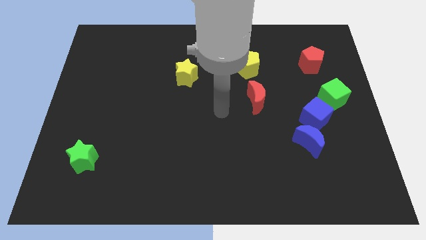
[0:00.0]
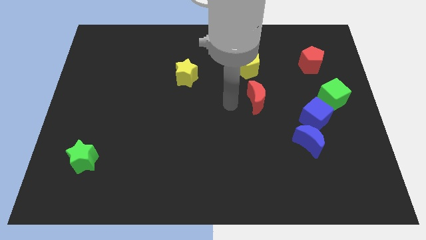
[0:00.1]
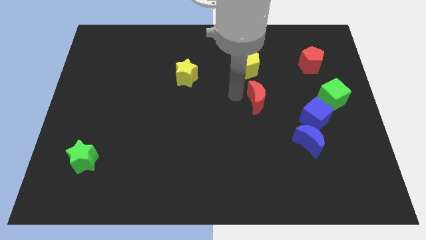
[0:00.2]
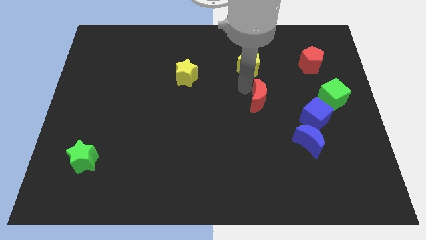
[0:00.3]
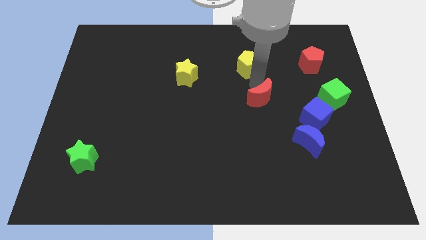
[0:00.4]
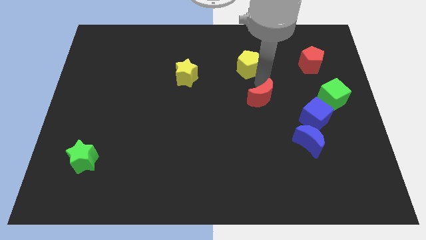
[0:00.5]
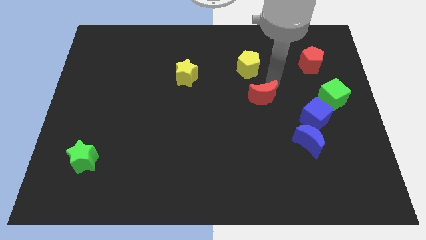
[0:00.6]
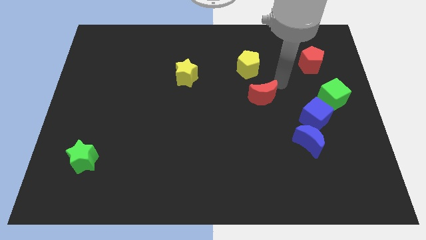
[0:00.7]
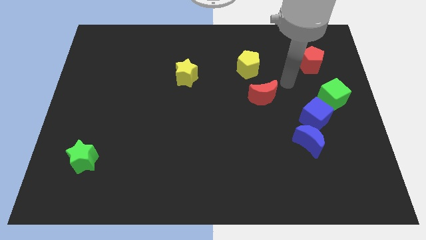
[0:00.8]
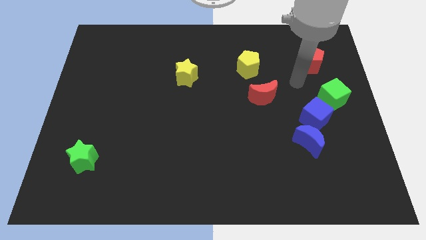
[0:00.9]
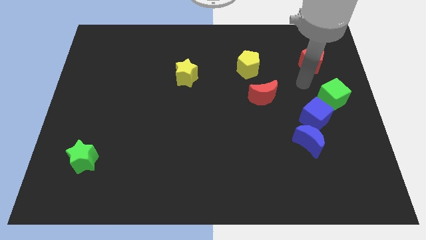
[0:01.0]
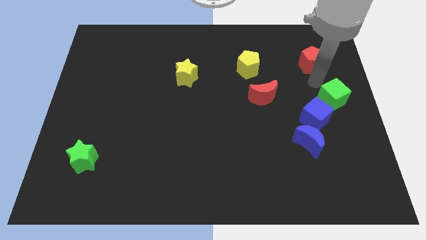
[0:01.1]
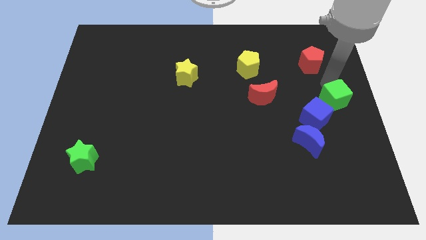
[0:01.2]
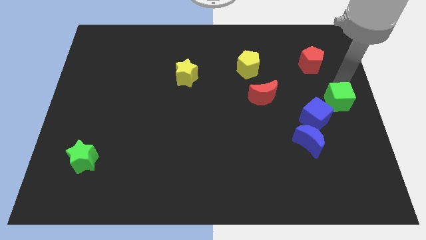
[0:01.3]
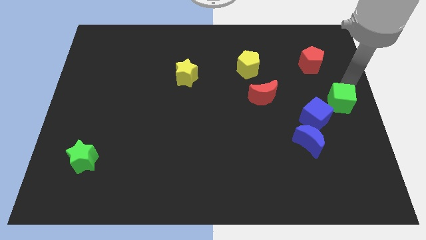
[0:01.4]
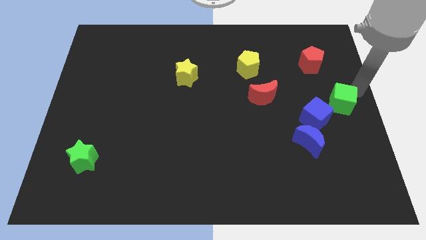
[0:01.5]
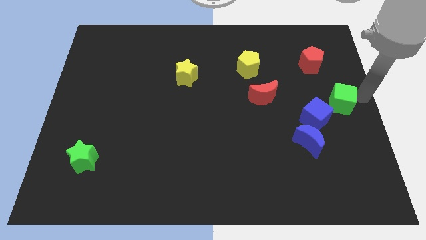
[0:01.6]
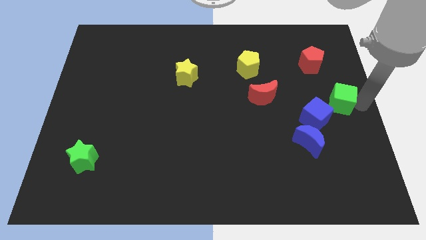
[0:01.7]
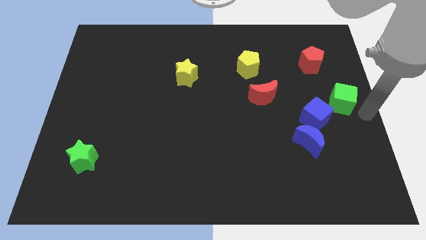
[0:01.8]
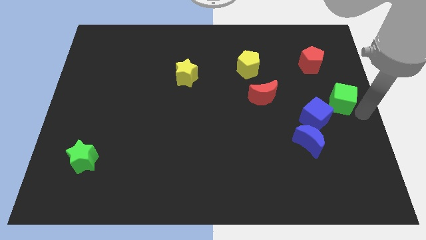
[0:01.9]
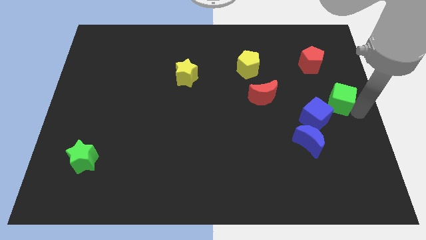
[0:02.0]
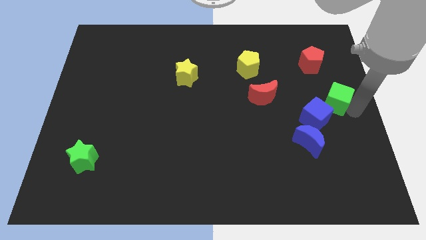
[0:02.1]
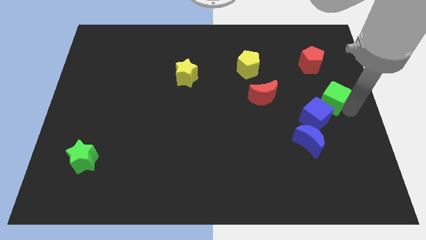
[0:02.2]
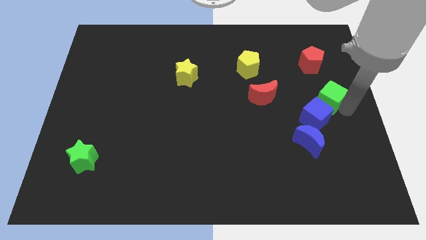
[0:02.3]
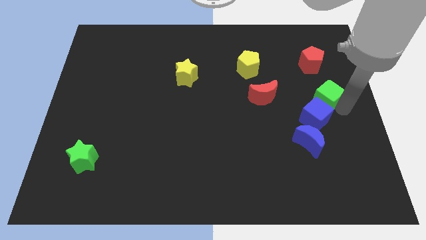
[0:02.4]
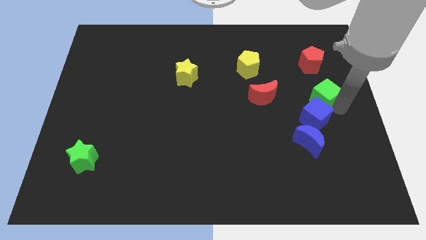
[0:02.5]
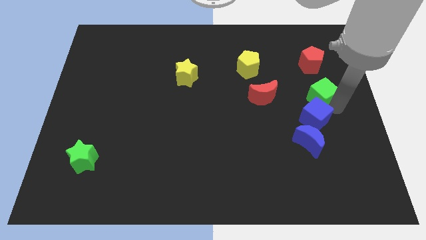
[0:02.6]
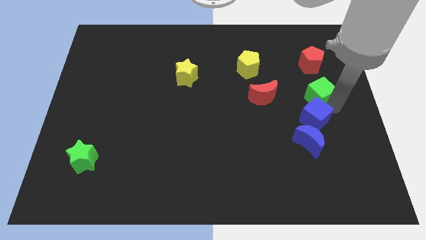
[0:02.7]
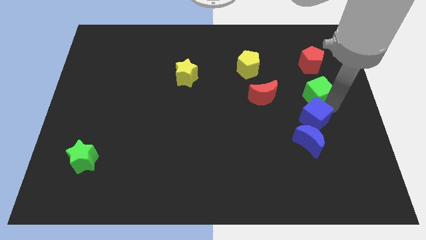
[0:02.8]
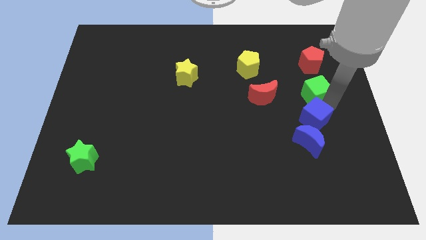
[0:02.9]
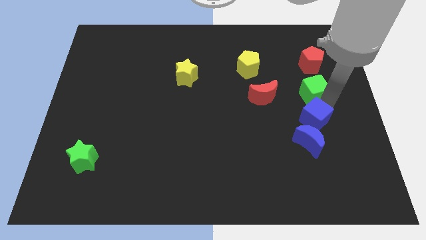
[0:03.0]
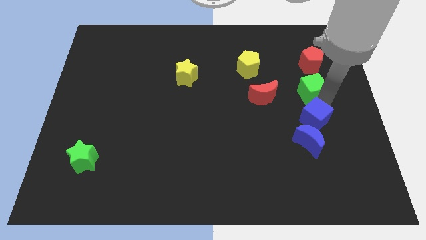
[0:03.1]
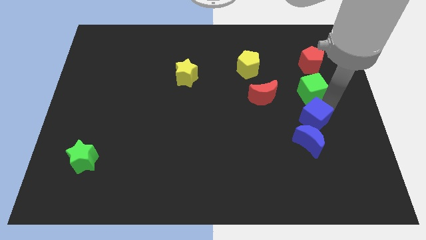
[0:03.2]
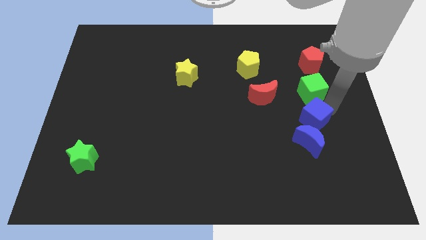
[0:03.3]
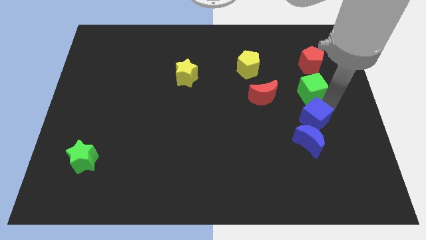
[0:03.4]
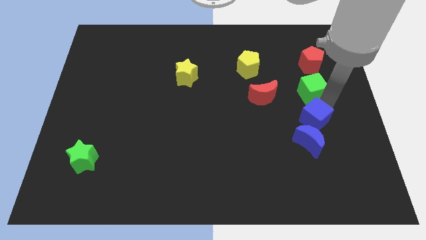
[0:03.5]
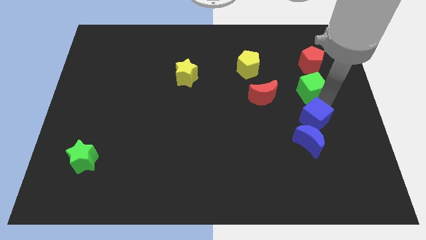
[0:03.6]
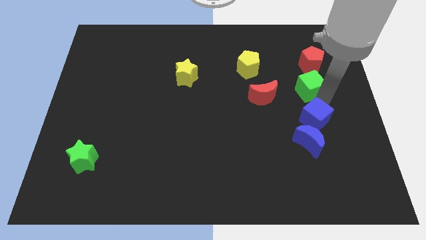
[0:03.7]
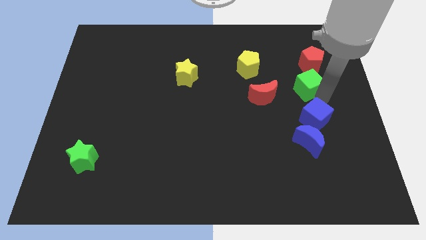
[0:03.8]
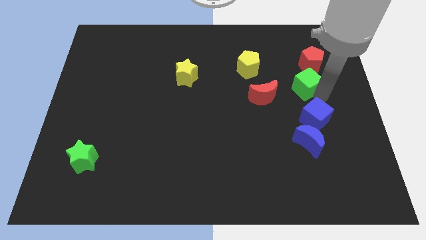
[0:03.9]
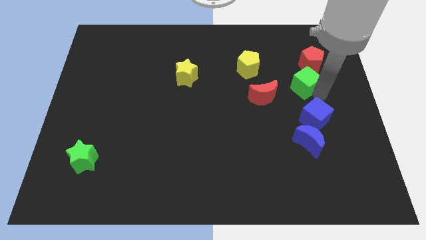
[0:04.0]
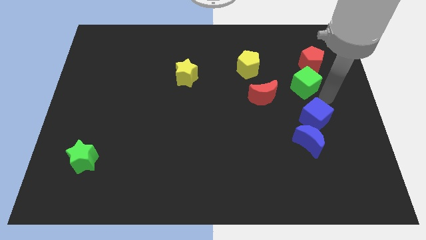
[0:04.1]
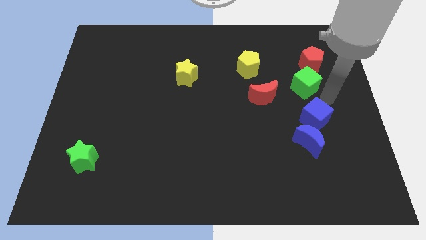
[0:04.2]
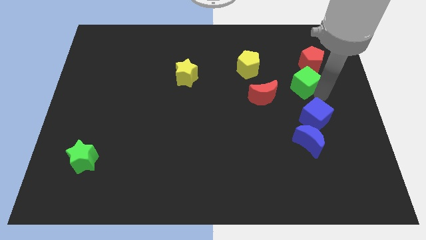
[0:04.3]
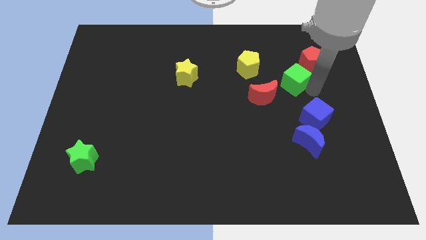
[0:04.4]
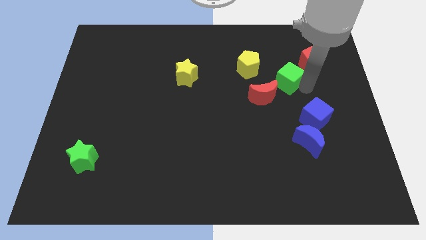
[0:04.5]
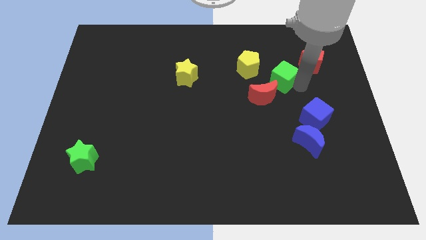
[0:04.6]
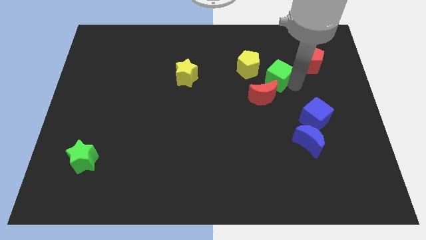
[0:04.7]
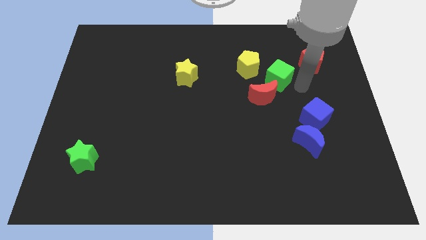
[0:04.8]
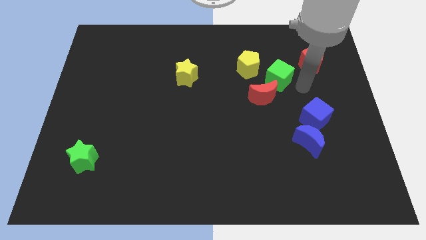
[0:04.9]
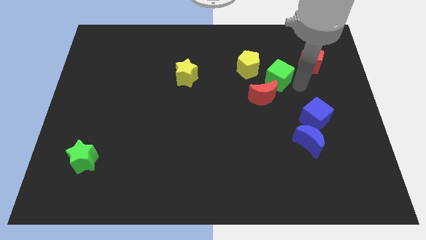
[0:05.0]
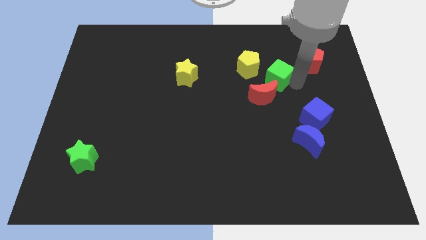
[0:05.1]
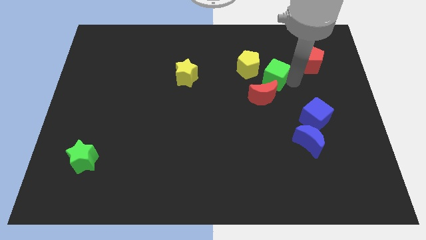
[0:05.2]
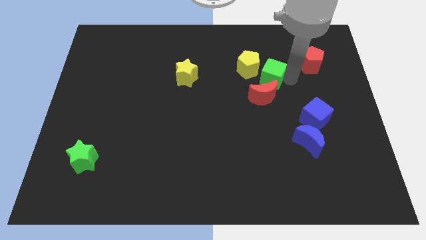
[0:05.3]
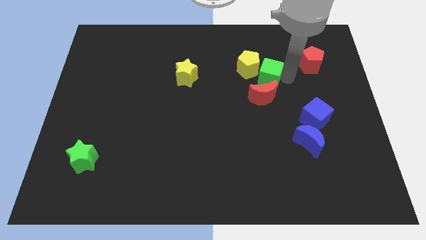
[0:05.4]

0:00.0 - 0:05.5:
push the green cube close to the yellow pentagon

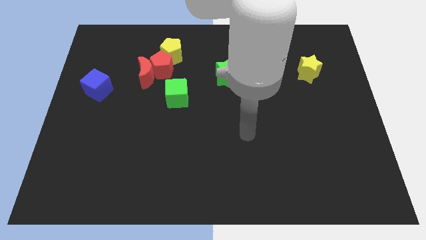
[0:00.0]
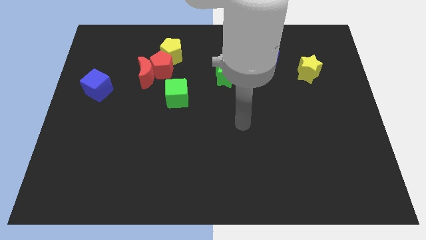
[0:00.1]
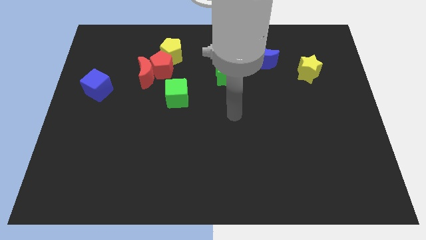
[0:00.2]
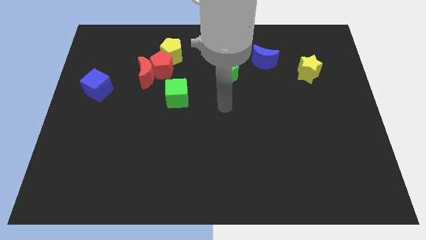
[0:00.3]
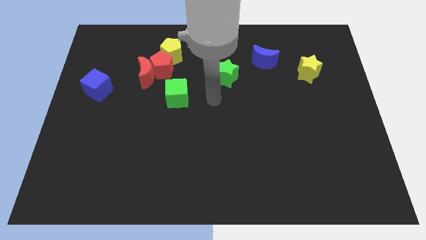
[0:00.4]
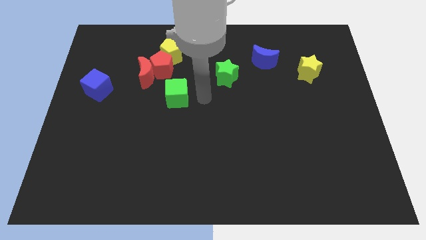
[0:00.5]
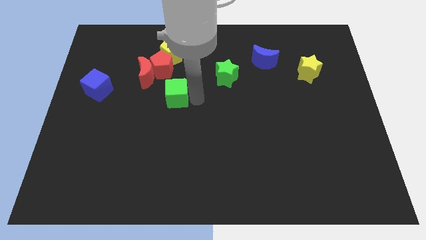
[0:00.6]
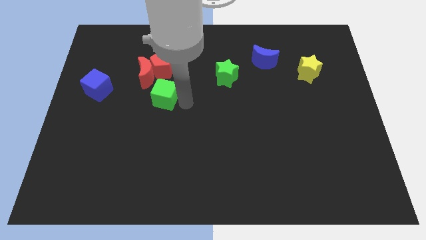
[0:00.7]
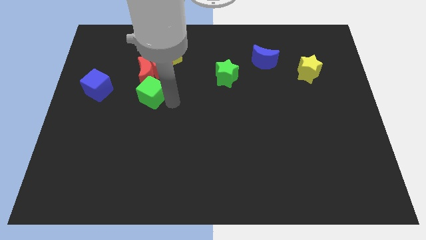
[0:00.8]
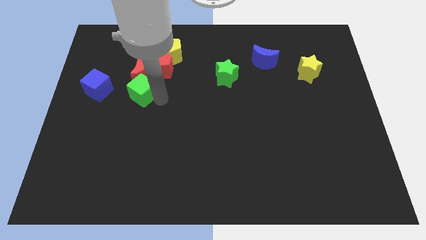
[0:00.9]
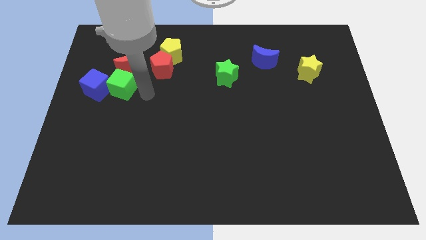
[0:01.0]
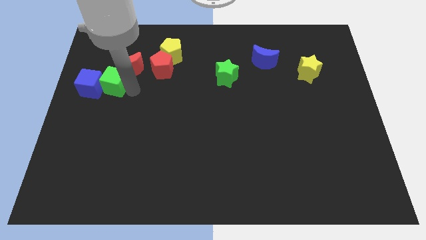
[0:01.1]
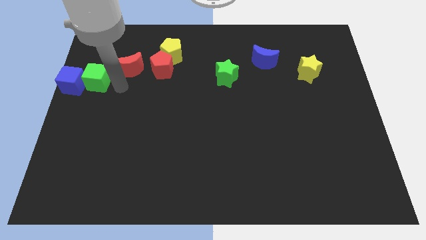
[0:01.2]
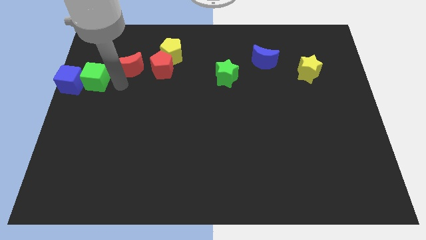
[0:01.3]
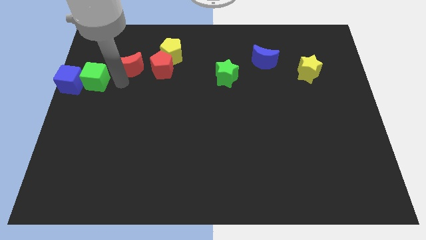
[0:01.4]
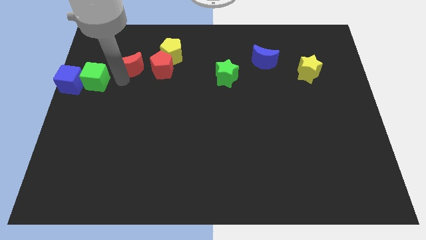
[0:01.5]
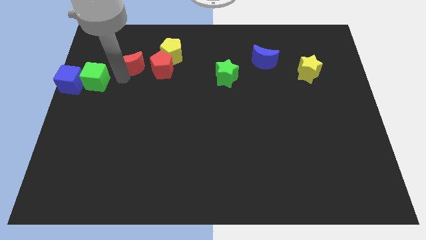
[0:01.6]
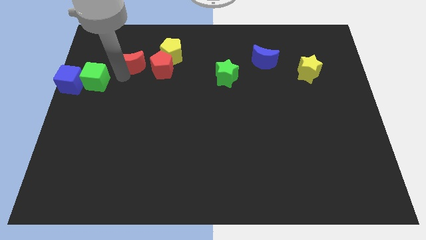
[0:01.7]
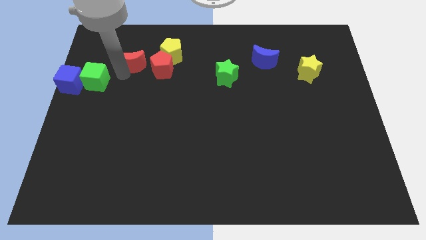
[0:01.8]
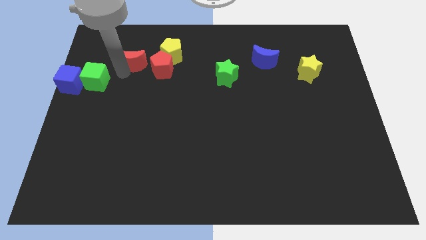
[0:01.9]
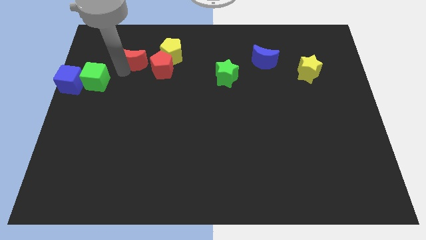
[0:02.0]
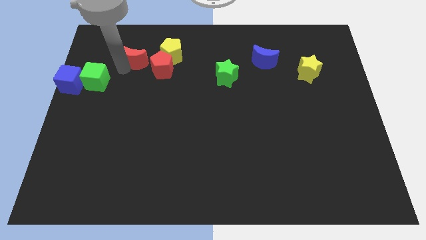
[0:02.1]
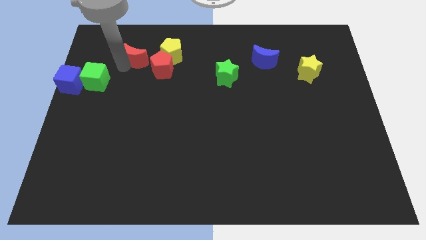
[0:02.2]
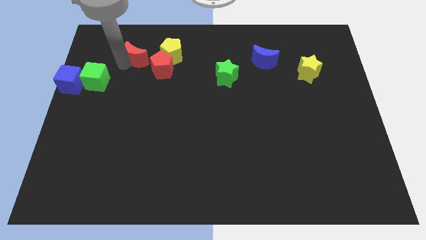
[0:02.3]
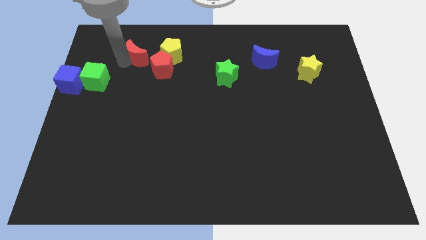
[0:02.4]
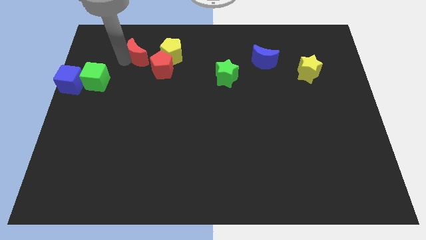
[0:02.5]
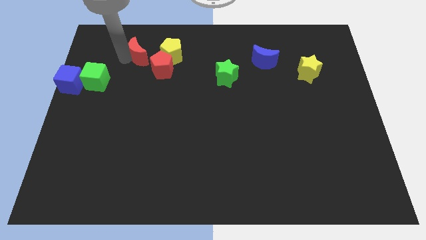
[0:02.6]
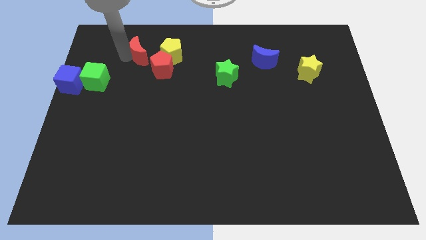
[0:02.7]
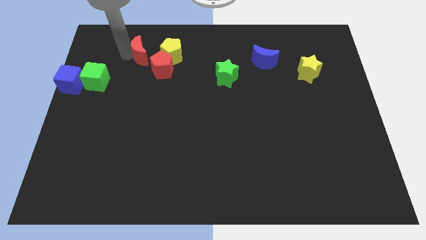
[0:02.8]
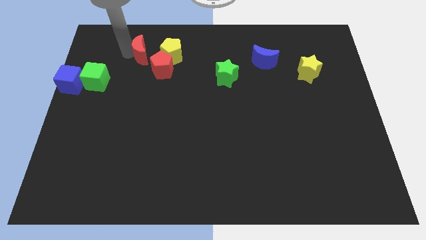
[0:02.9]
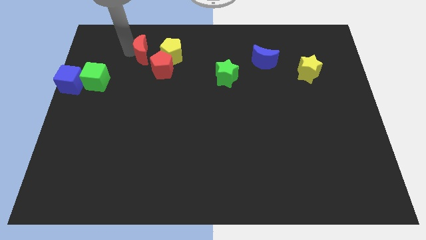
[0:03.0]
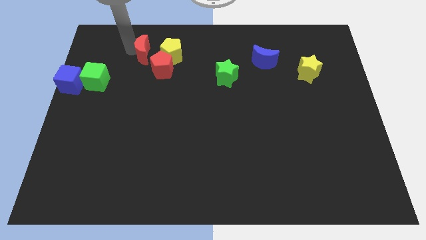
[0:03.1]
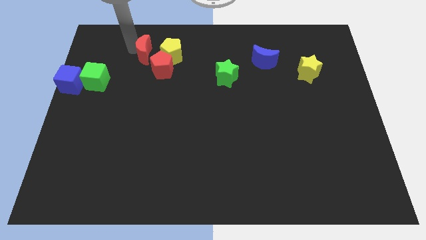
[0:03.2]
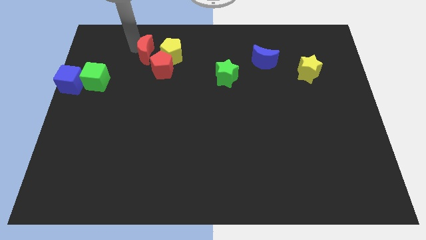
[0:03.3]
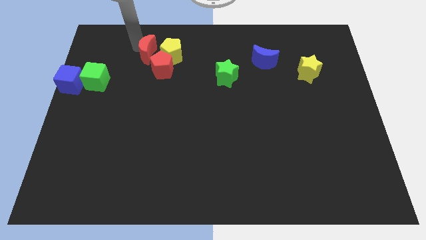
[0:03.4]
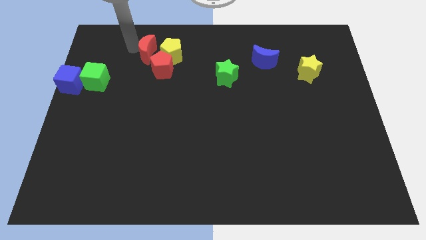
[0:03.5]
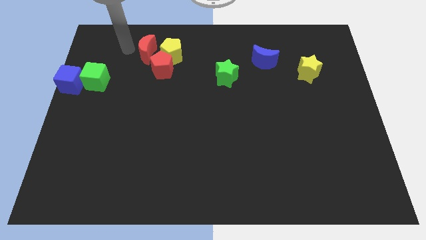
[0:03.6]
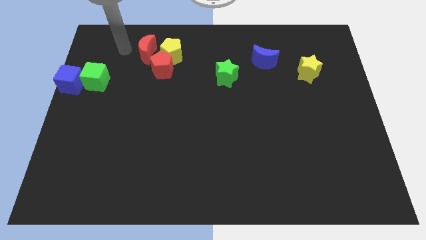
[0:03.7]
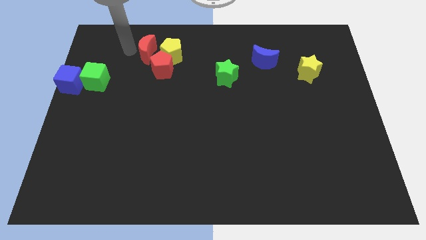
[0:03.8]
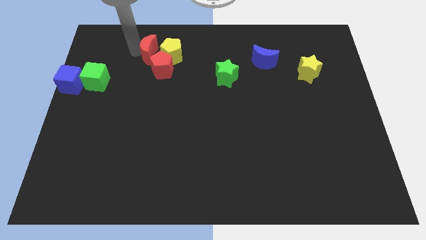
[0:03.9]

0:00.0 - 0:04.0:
move the red moon close to the yellow pentagon
